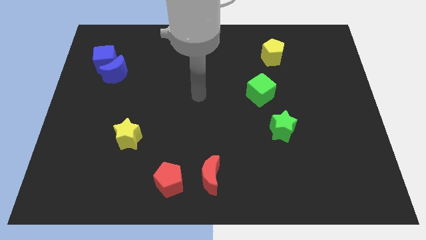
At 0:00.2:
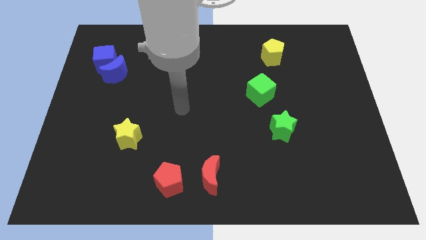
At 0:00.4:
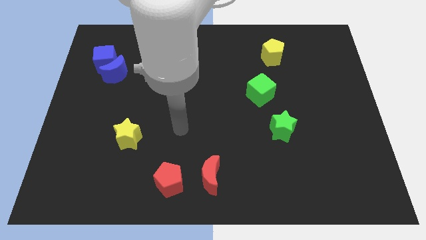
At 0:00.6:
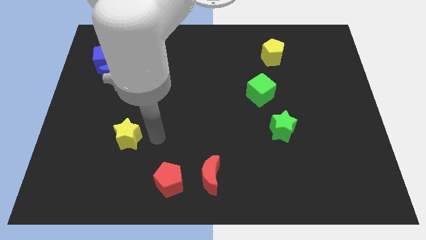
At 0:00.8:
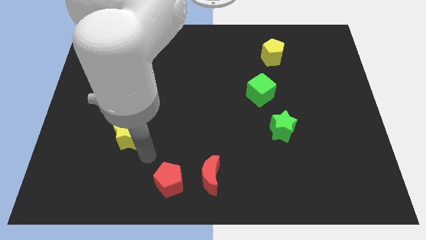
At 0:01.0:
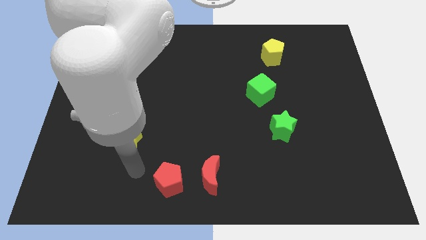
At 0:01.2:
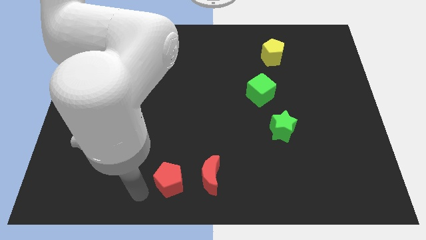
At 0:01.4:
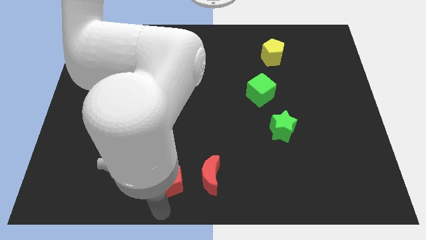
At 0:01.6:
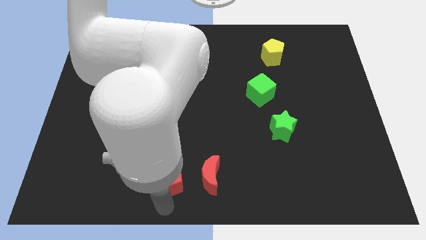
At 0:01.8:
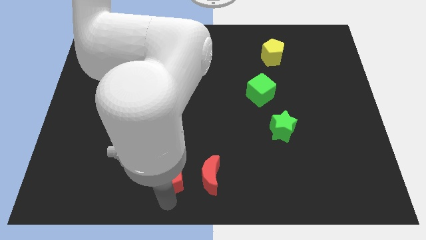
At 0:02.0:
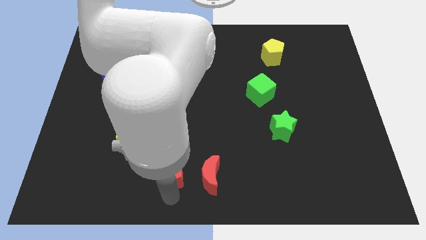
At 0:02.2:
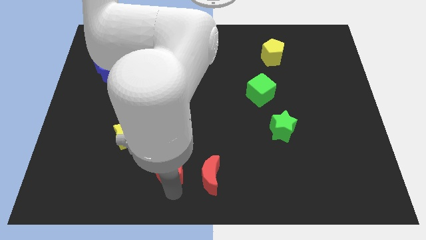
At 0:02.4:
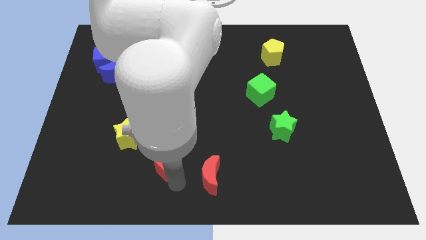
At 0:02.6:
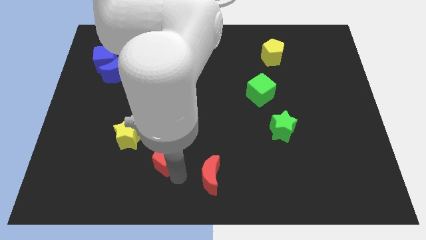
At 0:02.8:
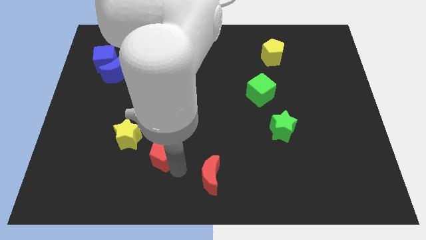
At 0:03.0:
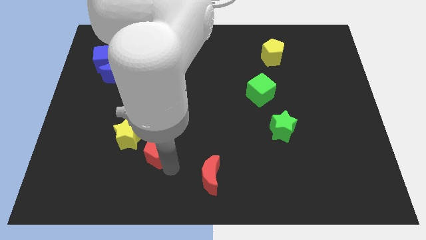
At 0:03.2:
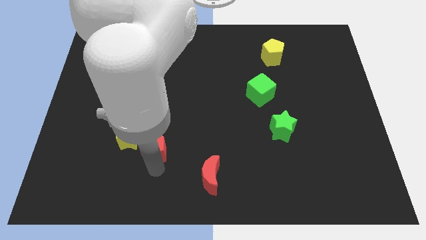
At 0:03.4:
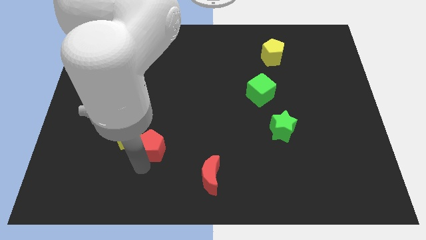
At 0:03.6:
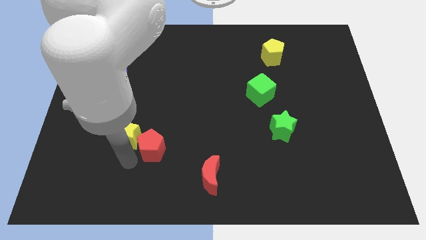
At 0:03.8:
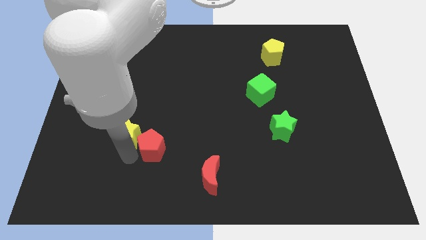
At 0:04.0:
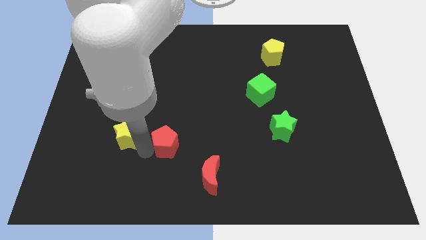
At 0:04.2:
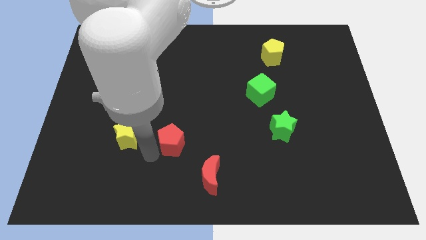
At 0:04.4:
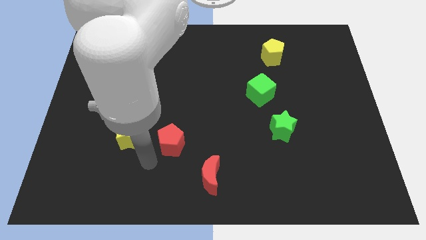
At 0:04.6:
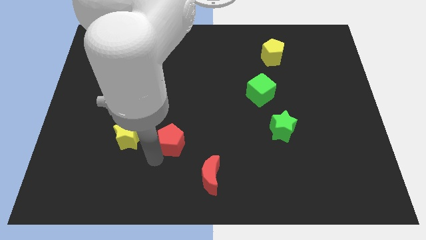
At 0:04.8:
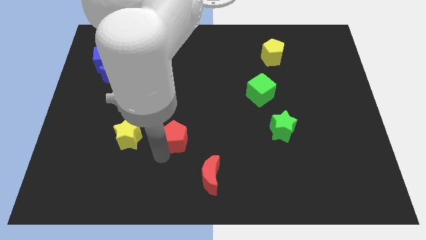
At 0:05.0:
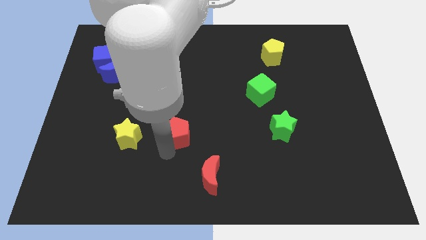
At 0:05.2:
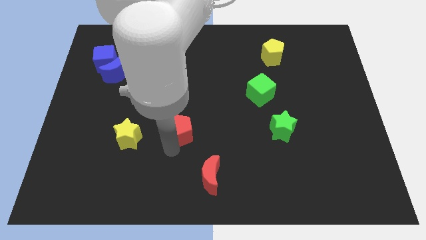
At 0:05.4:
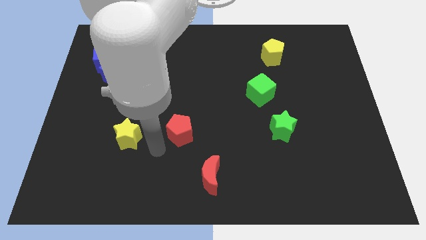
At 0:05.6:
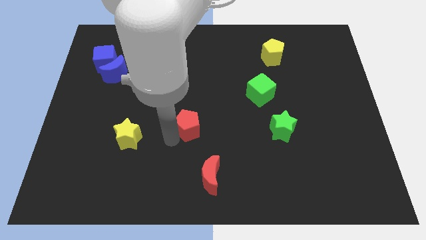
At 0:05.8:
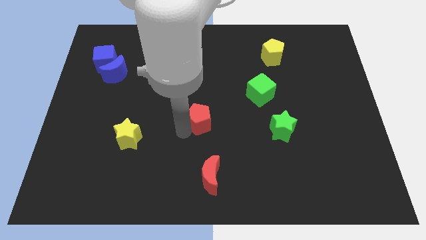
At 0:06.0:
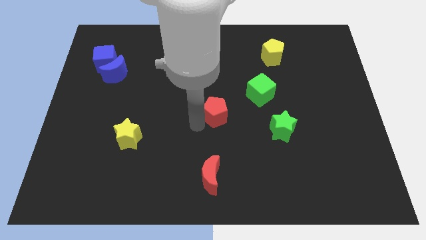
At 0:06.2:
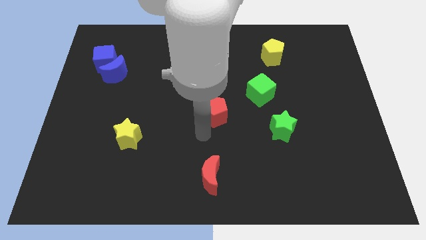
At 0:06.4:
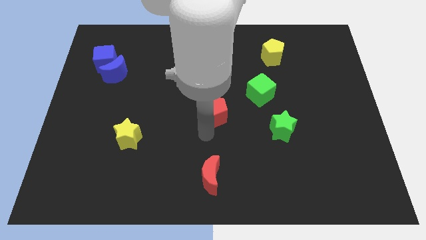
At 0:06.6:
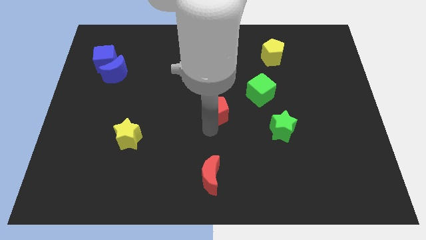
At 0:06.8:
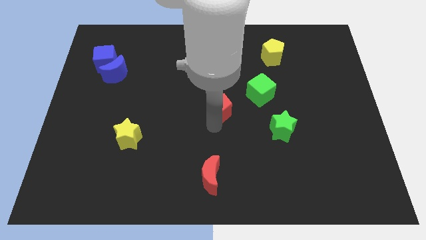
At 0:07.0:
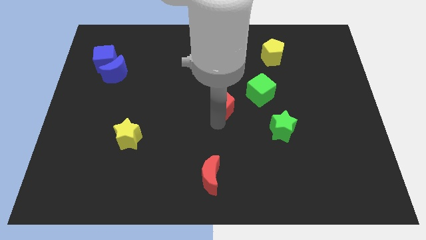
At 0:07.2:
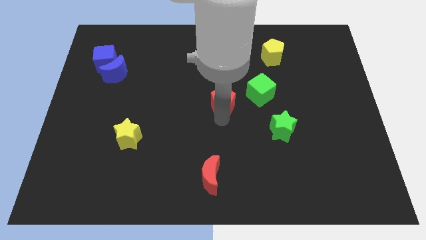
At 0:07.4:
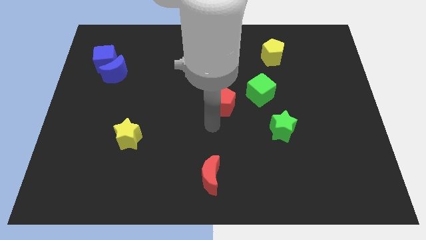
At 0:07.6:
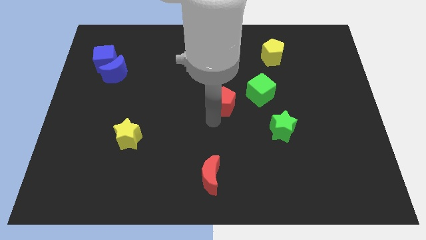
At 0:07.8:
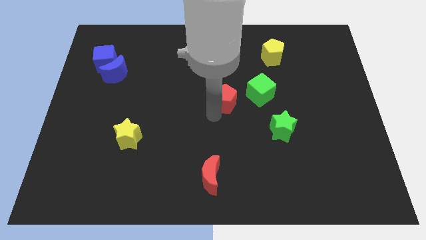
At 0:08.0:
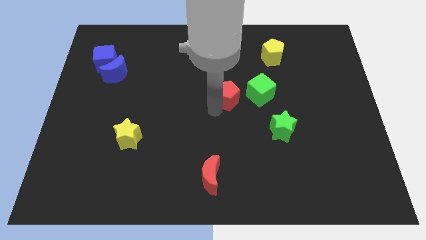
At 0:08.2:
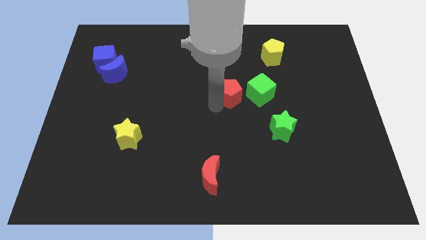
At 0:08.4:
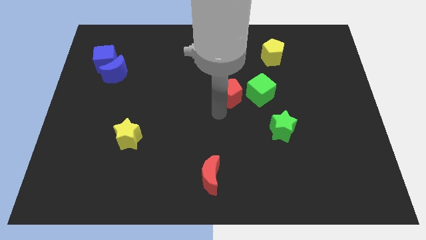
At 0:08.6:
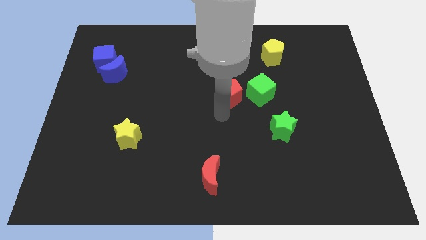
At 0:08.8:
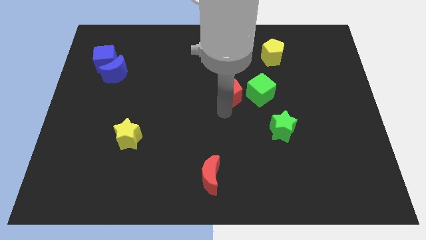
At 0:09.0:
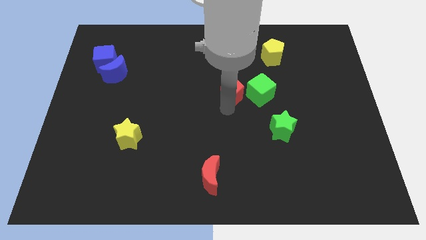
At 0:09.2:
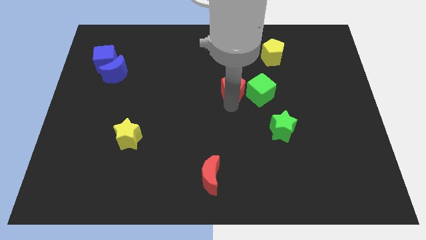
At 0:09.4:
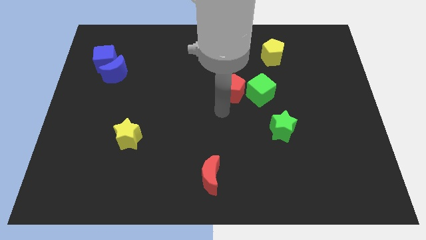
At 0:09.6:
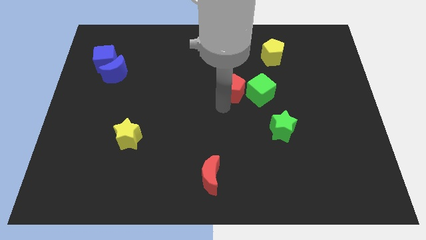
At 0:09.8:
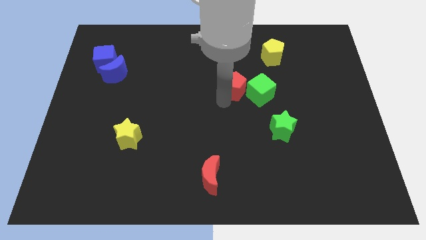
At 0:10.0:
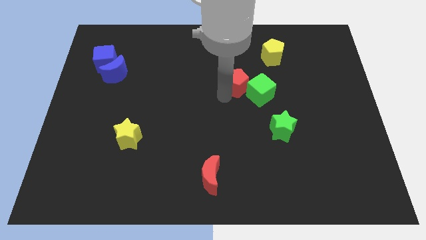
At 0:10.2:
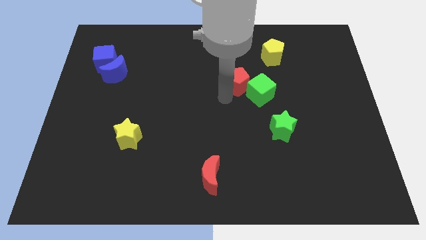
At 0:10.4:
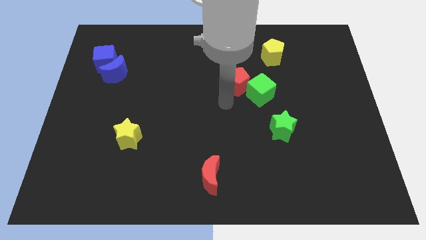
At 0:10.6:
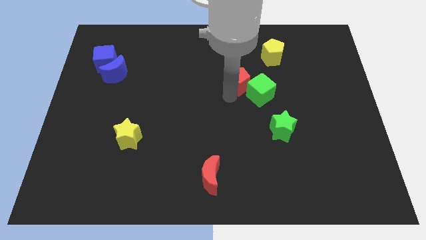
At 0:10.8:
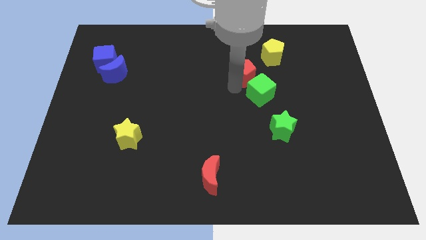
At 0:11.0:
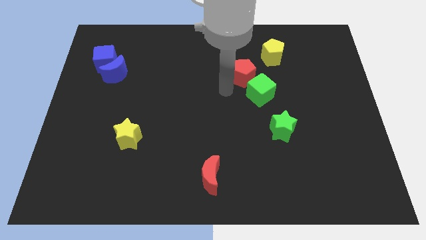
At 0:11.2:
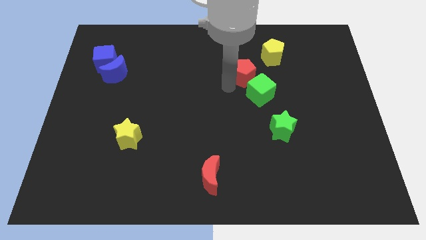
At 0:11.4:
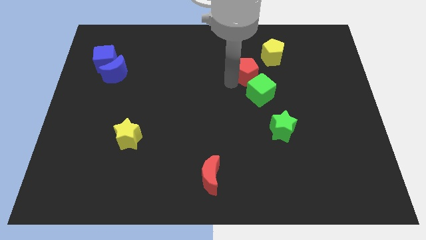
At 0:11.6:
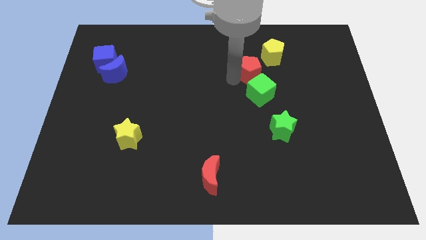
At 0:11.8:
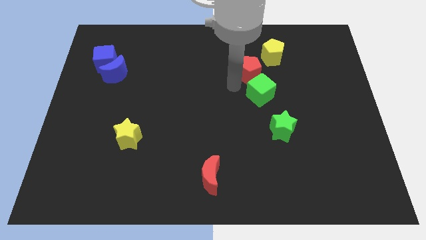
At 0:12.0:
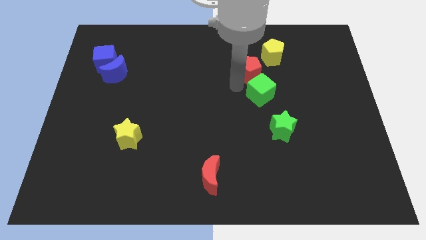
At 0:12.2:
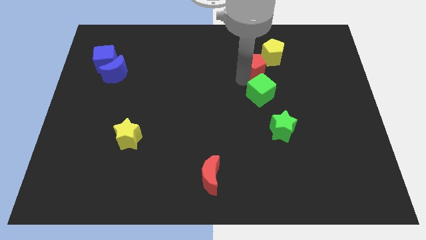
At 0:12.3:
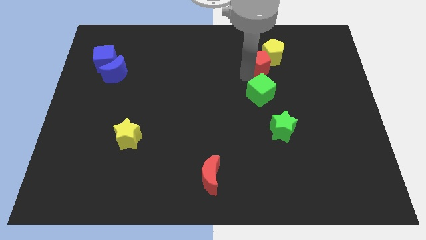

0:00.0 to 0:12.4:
put the red pentagon towards the yellow pentagon

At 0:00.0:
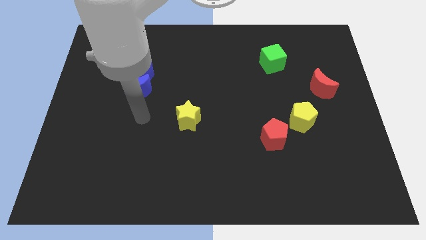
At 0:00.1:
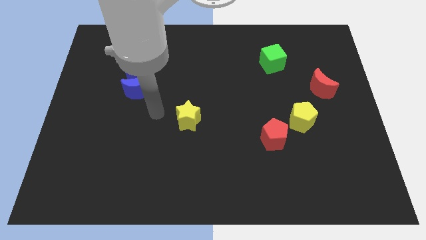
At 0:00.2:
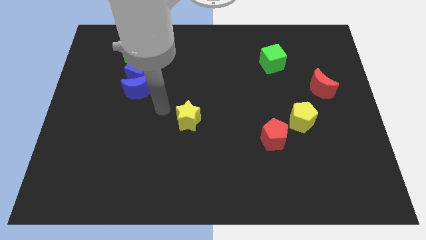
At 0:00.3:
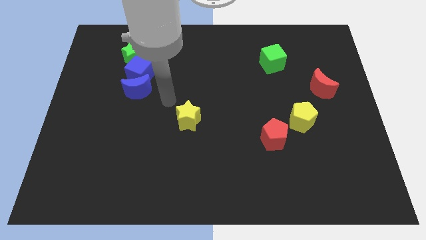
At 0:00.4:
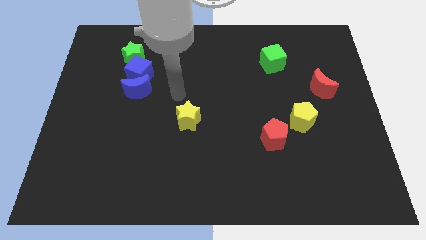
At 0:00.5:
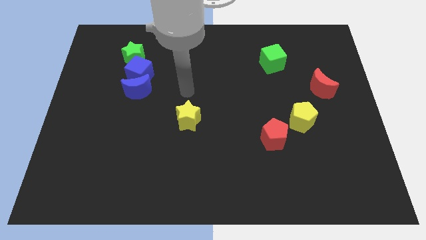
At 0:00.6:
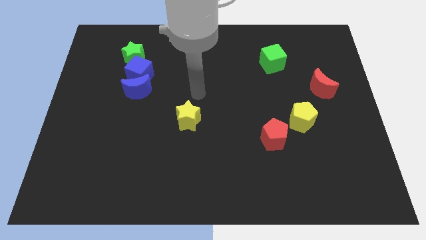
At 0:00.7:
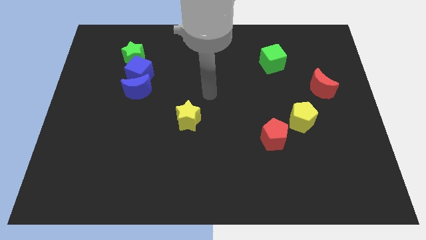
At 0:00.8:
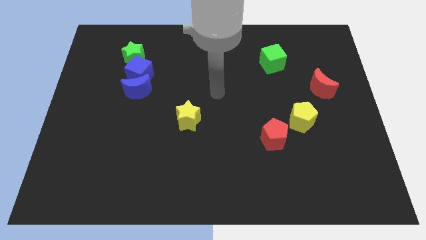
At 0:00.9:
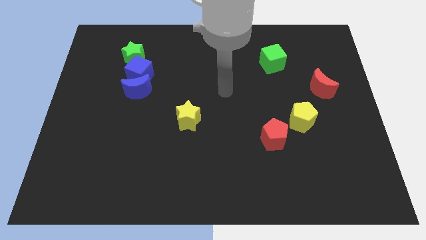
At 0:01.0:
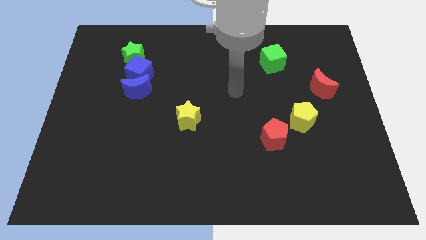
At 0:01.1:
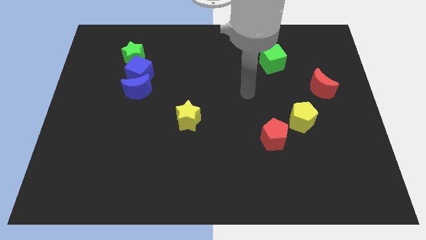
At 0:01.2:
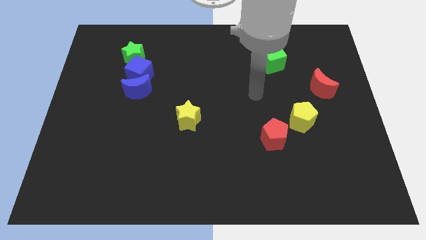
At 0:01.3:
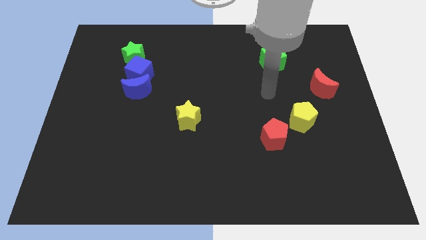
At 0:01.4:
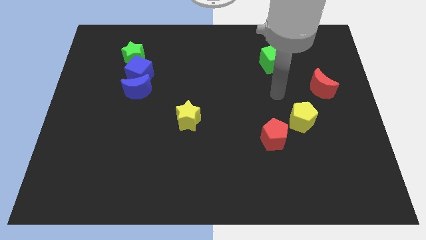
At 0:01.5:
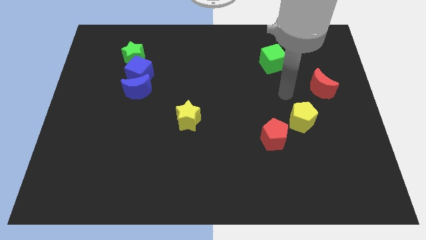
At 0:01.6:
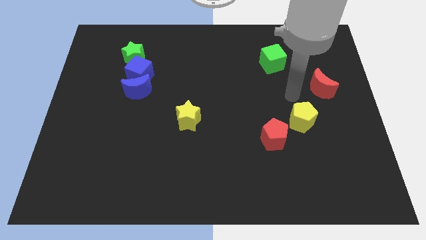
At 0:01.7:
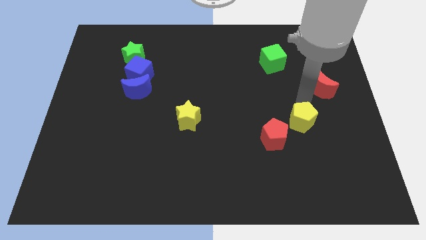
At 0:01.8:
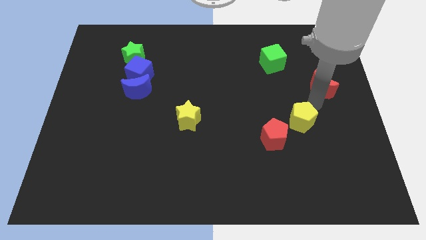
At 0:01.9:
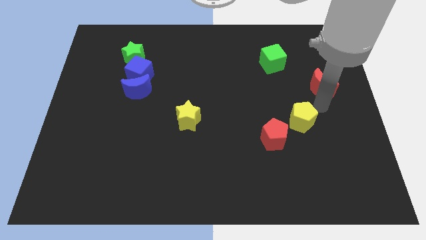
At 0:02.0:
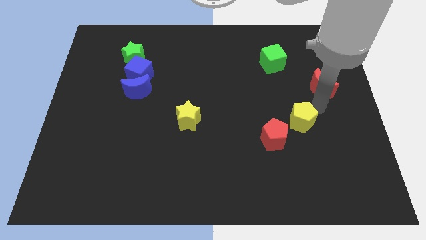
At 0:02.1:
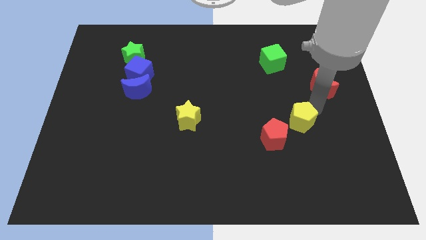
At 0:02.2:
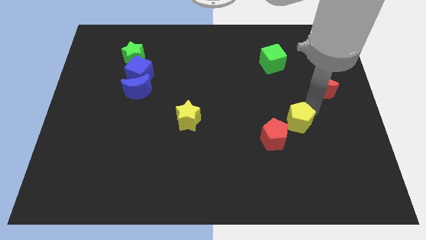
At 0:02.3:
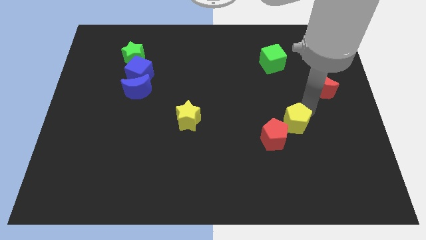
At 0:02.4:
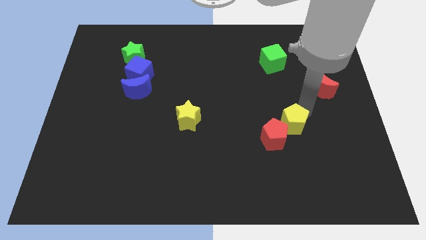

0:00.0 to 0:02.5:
push the yellow pentagon towards the red pentagon
